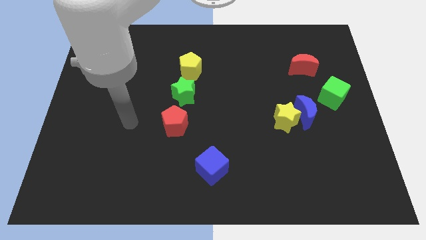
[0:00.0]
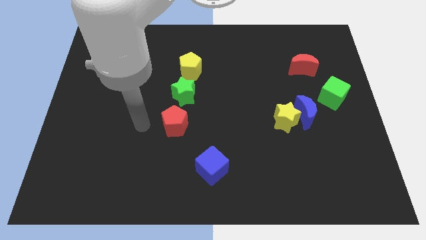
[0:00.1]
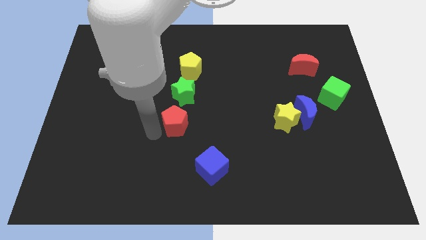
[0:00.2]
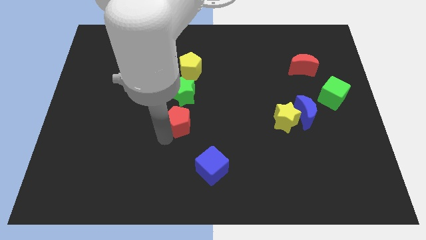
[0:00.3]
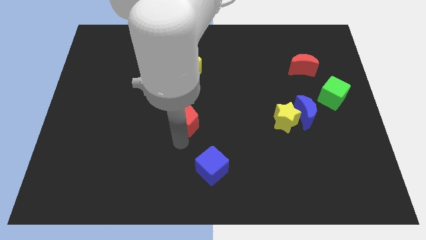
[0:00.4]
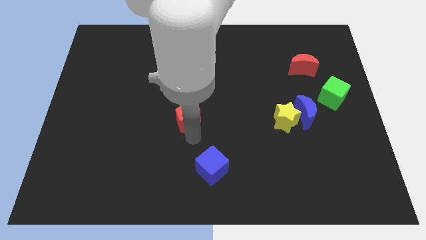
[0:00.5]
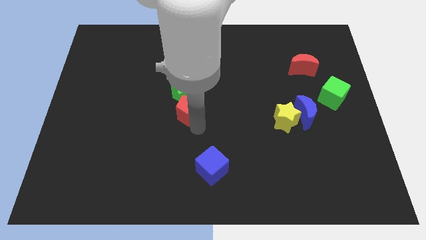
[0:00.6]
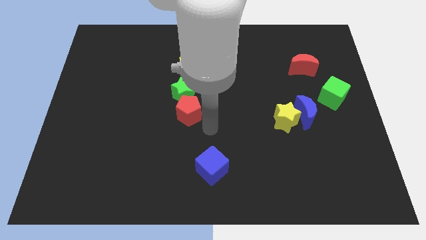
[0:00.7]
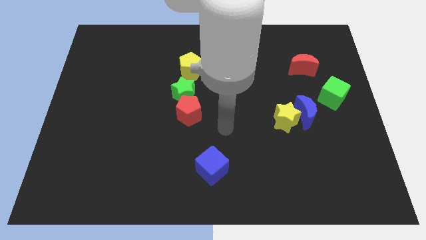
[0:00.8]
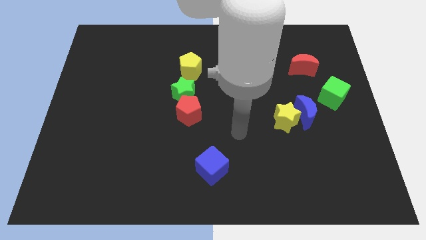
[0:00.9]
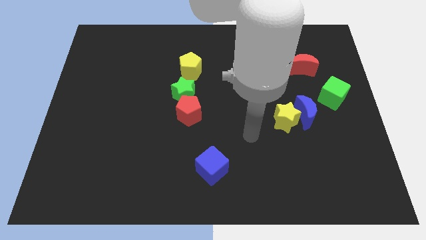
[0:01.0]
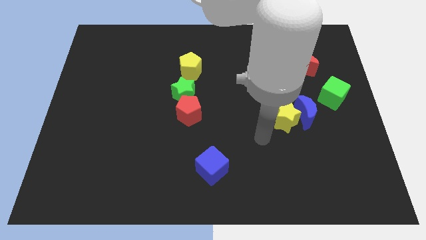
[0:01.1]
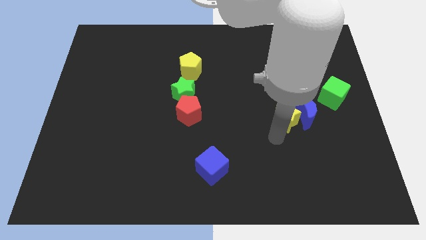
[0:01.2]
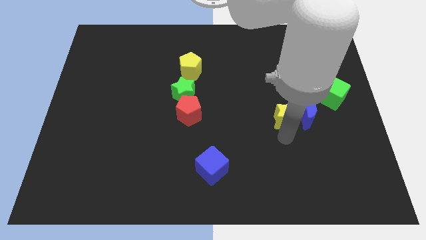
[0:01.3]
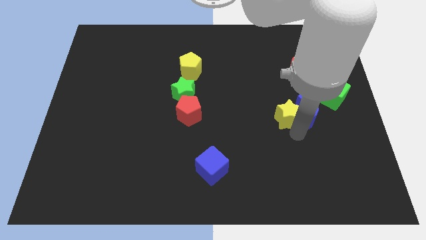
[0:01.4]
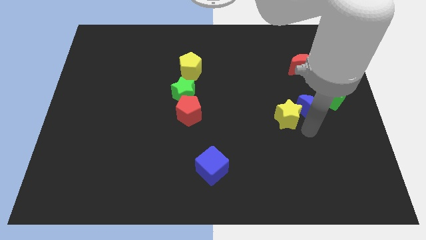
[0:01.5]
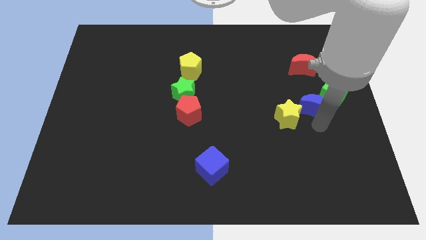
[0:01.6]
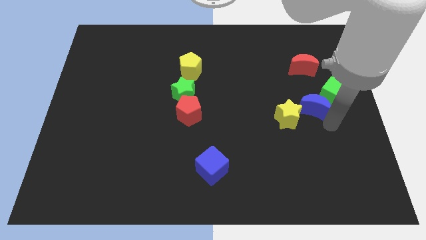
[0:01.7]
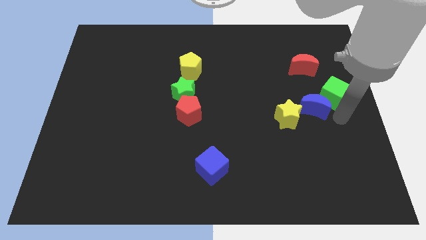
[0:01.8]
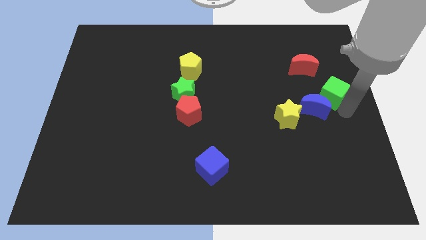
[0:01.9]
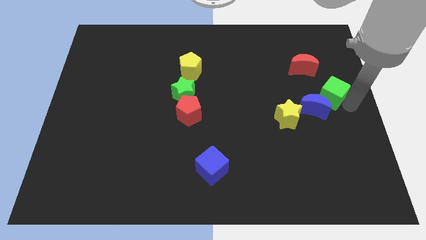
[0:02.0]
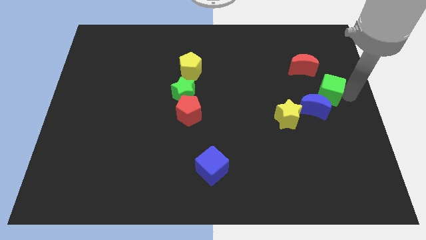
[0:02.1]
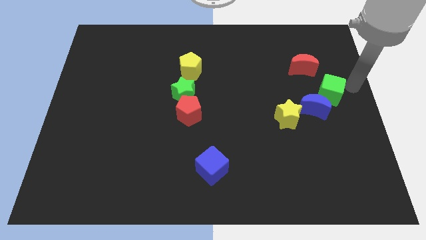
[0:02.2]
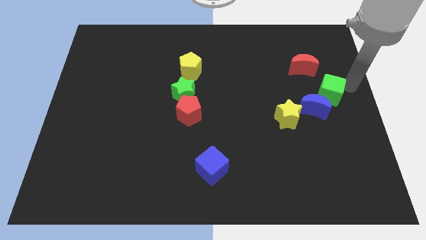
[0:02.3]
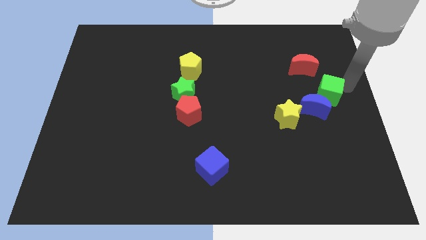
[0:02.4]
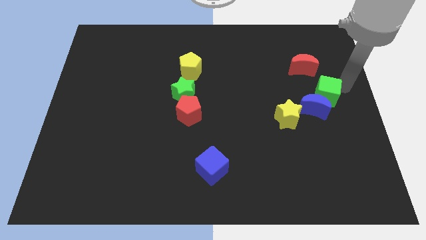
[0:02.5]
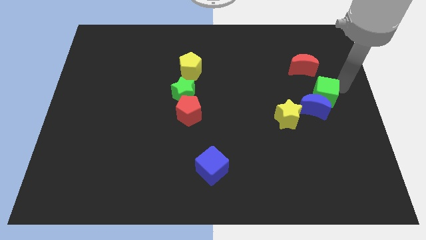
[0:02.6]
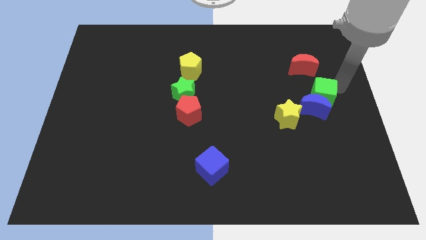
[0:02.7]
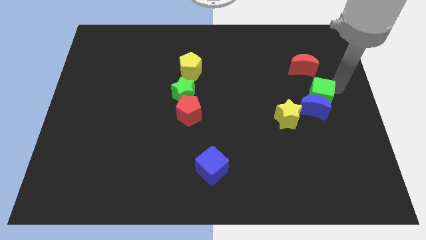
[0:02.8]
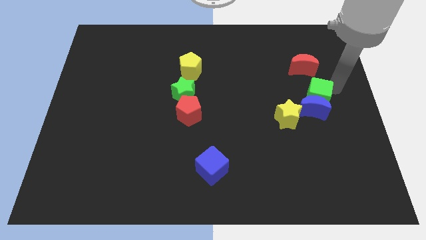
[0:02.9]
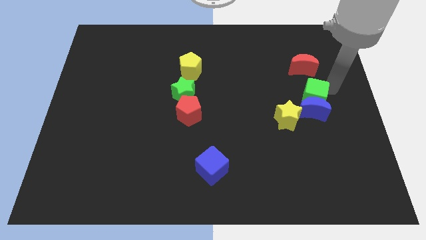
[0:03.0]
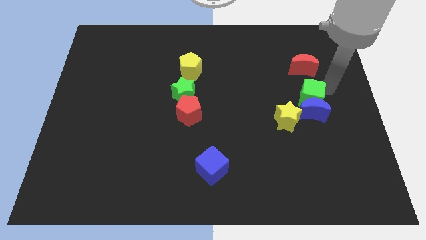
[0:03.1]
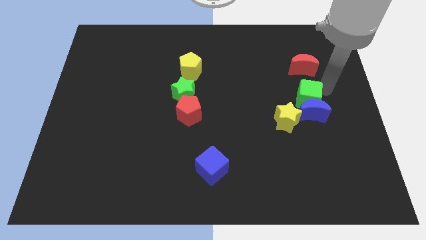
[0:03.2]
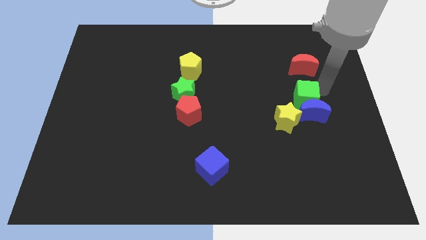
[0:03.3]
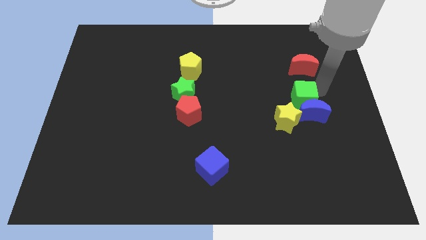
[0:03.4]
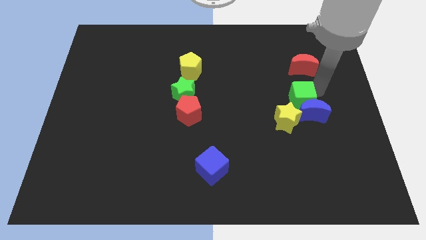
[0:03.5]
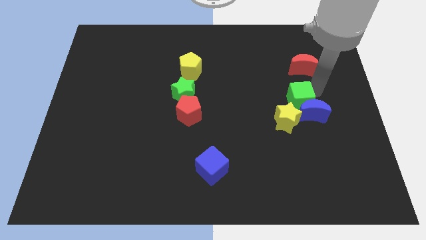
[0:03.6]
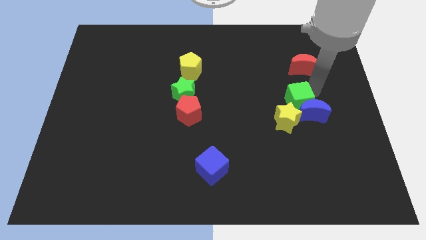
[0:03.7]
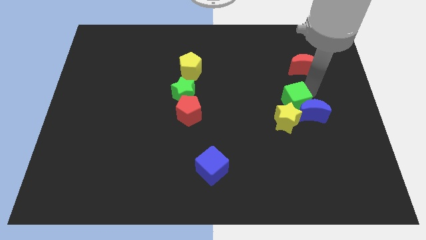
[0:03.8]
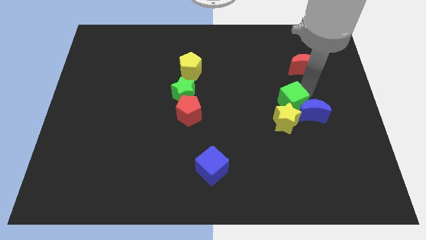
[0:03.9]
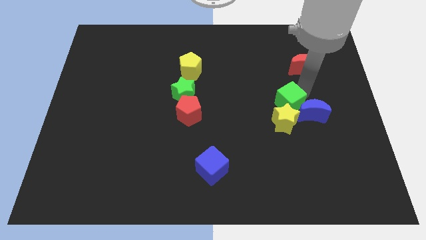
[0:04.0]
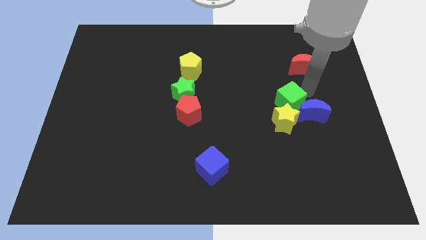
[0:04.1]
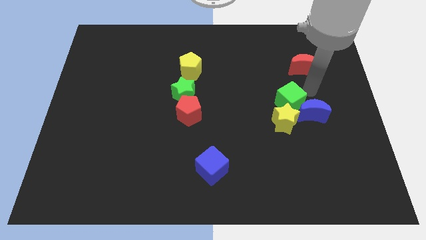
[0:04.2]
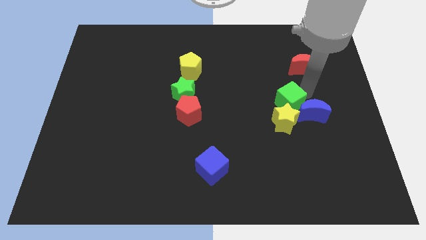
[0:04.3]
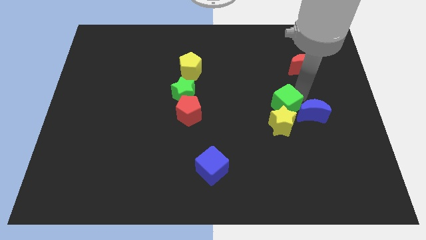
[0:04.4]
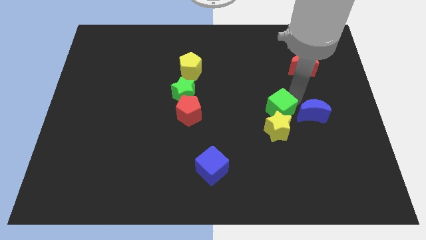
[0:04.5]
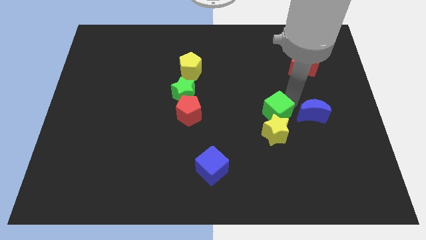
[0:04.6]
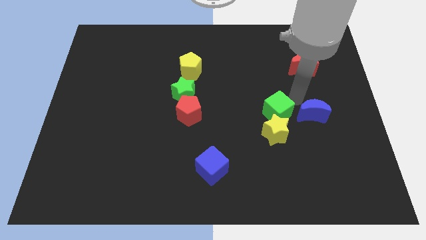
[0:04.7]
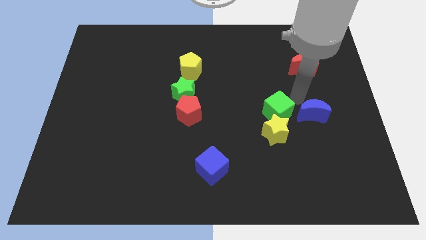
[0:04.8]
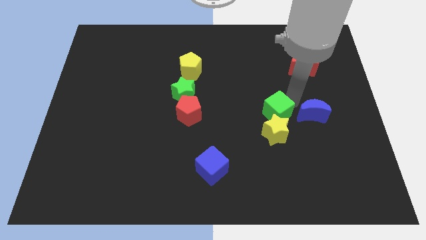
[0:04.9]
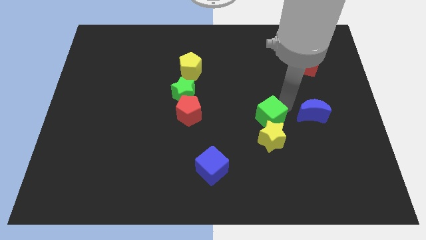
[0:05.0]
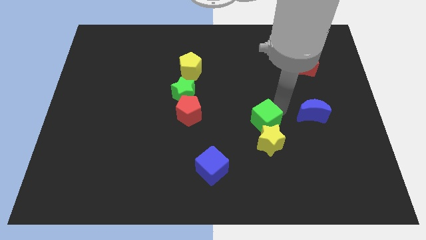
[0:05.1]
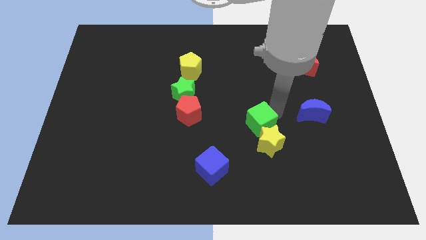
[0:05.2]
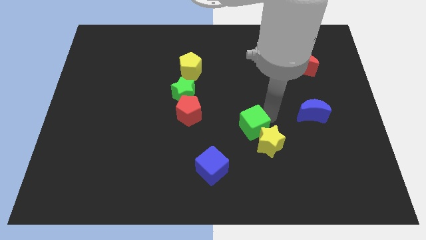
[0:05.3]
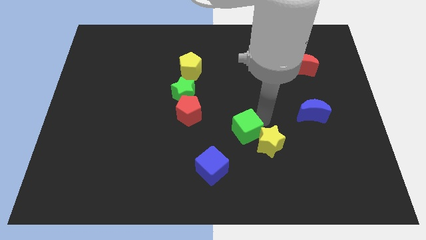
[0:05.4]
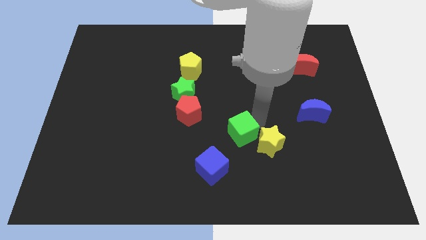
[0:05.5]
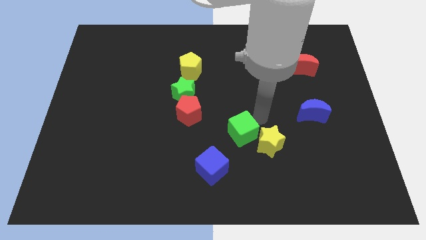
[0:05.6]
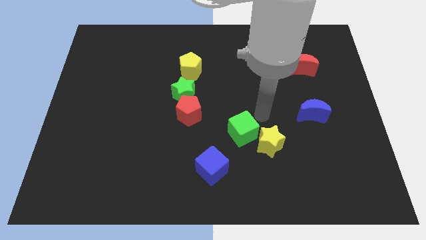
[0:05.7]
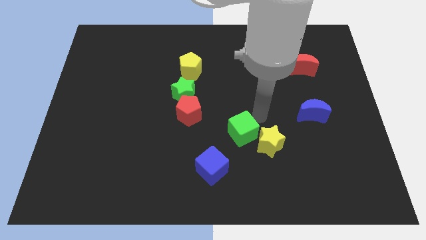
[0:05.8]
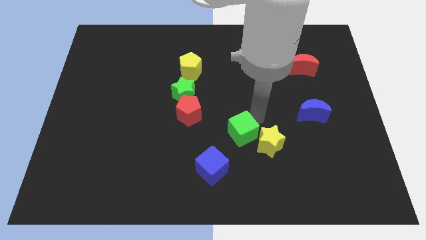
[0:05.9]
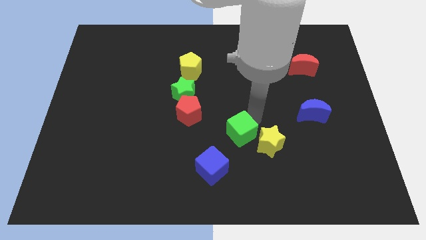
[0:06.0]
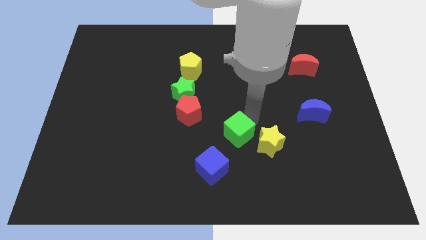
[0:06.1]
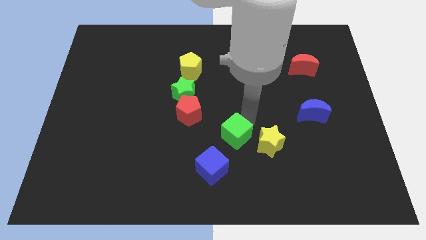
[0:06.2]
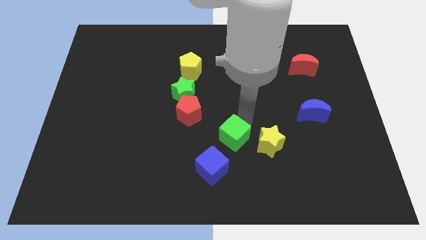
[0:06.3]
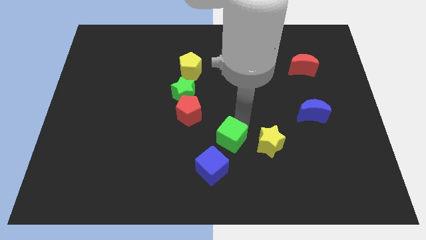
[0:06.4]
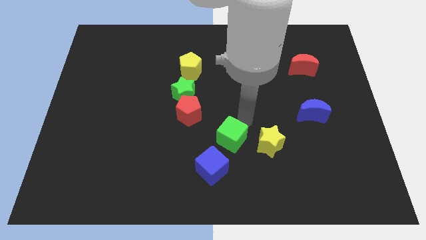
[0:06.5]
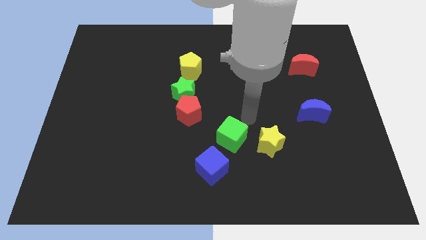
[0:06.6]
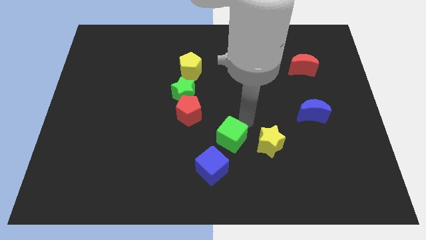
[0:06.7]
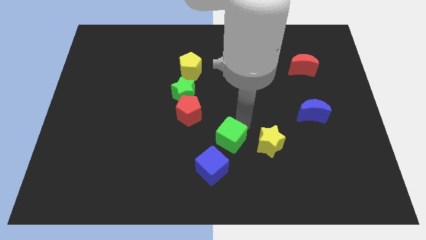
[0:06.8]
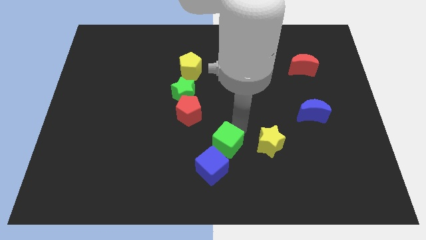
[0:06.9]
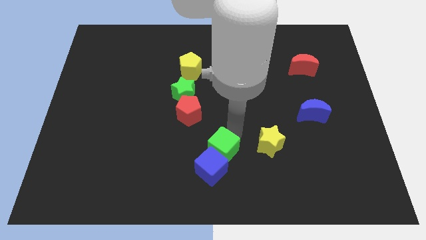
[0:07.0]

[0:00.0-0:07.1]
push the green cube close to the blue cube

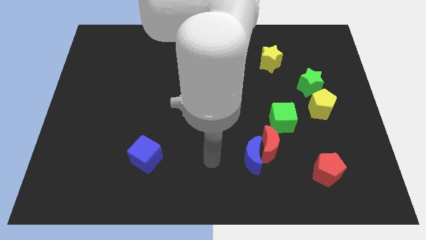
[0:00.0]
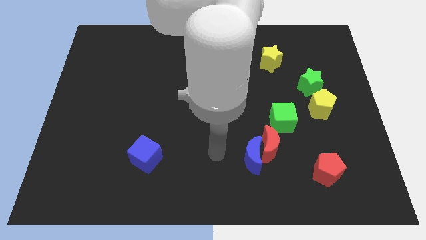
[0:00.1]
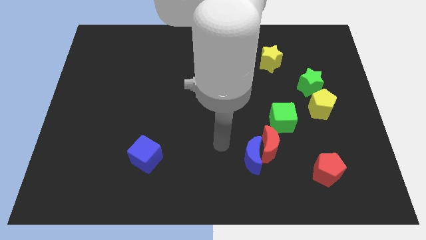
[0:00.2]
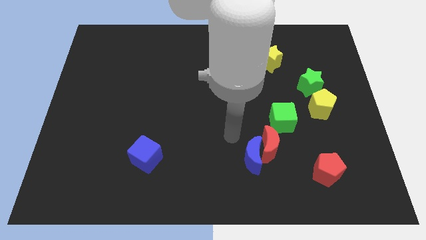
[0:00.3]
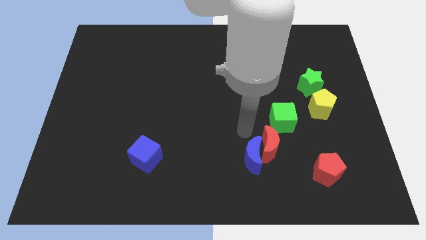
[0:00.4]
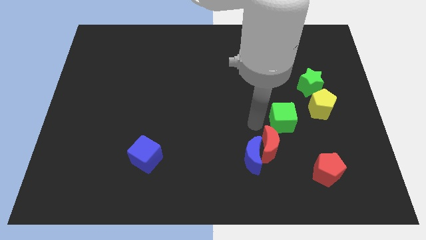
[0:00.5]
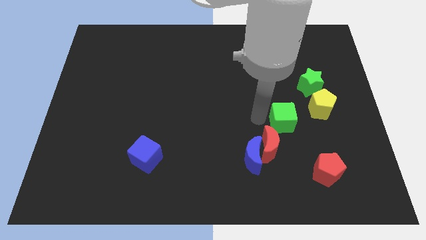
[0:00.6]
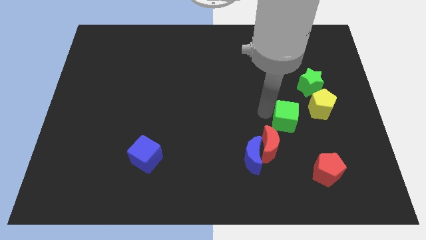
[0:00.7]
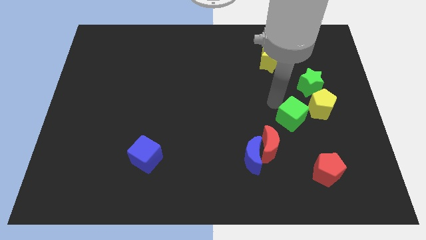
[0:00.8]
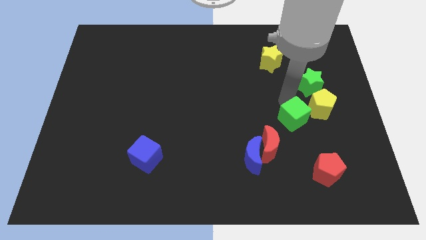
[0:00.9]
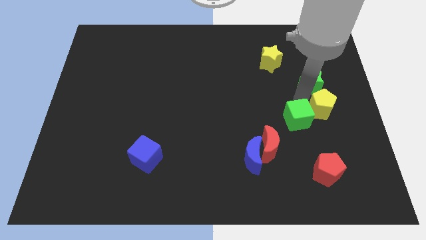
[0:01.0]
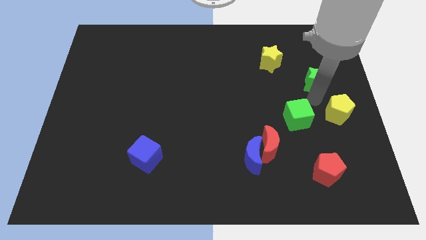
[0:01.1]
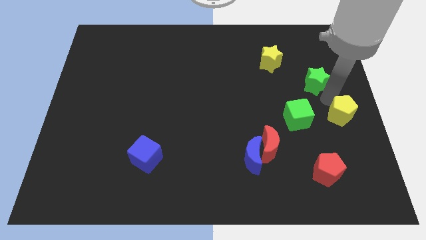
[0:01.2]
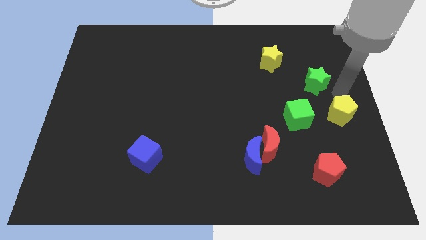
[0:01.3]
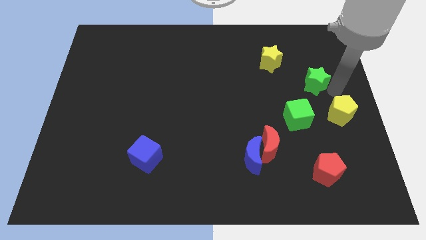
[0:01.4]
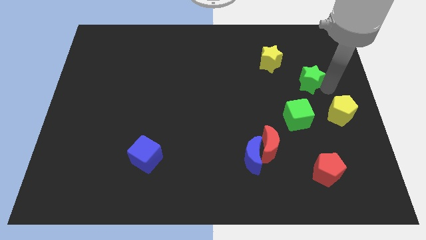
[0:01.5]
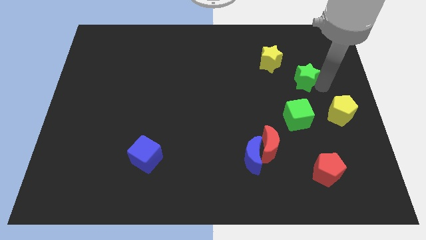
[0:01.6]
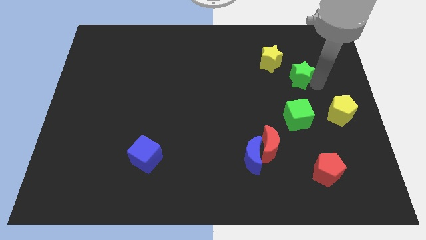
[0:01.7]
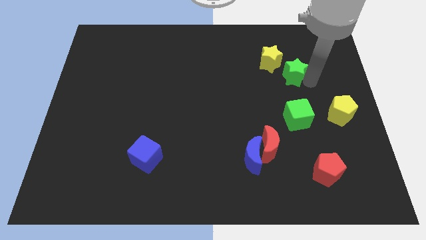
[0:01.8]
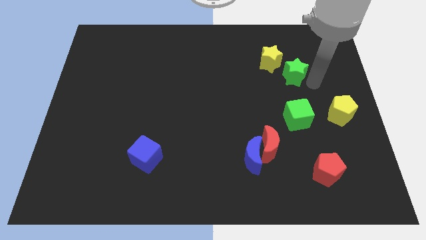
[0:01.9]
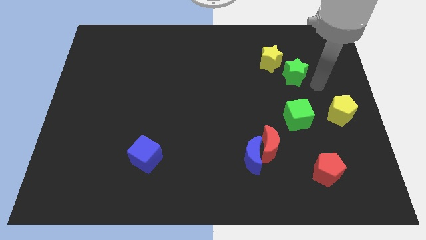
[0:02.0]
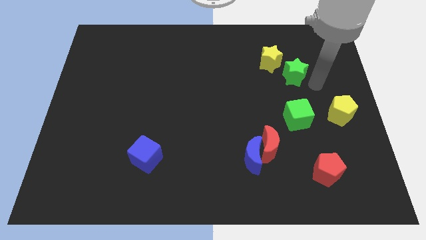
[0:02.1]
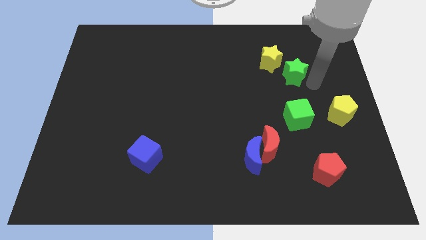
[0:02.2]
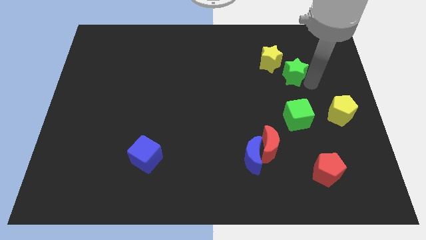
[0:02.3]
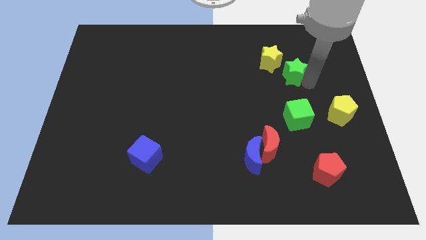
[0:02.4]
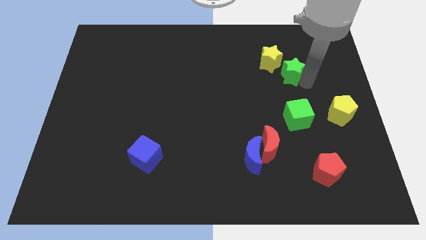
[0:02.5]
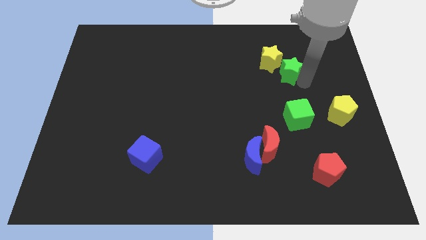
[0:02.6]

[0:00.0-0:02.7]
put the green star to the yellow star
